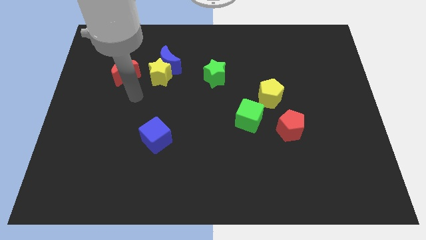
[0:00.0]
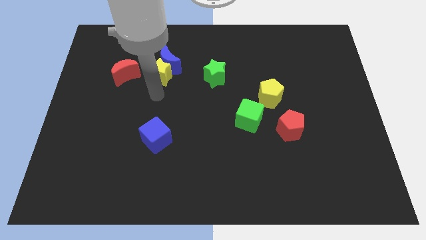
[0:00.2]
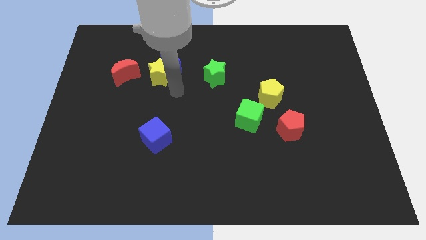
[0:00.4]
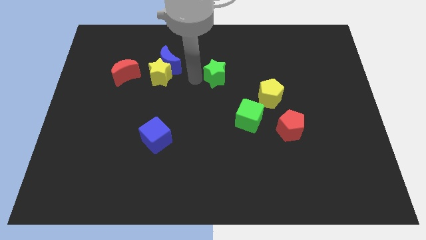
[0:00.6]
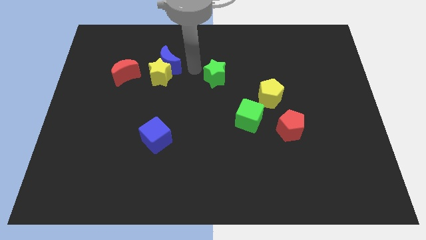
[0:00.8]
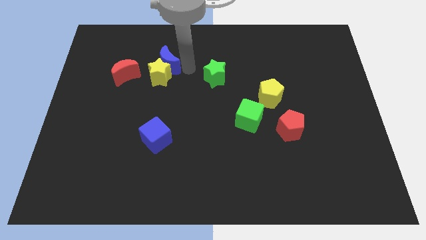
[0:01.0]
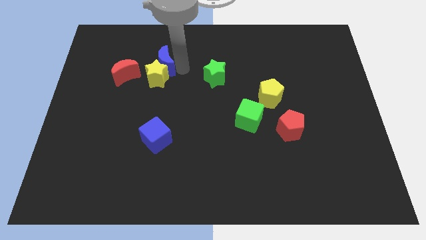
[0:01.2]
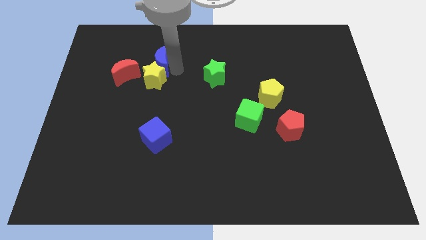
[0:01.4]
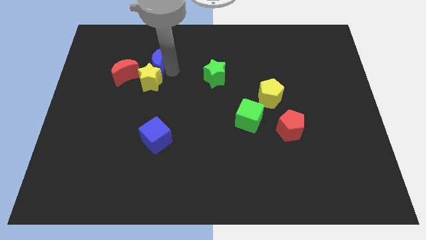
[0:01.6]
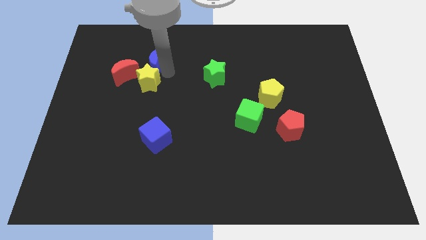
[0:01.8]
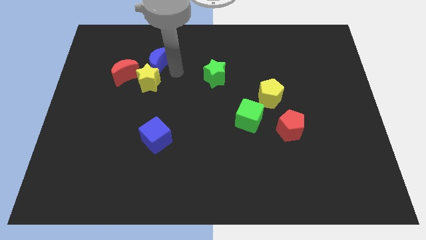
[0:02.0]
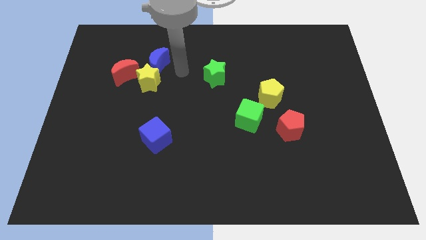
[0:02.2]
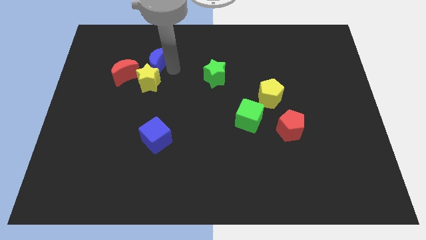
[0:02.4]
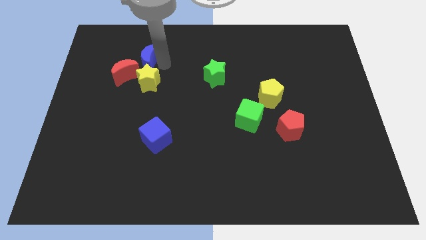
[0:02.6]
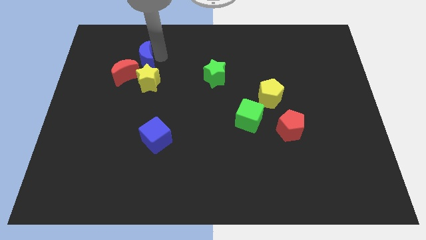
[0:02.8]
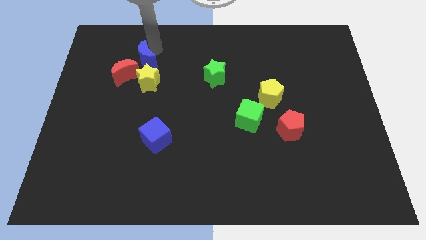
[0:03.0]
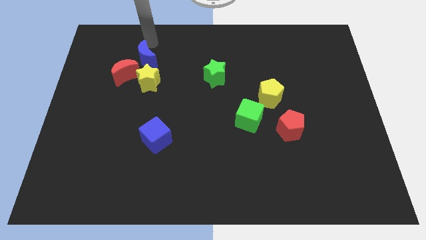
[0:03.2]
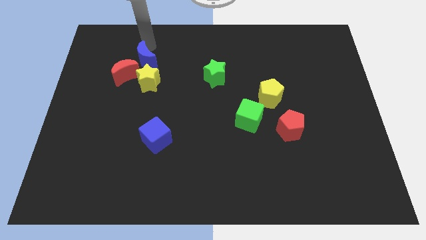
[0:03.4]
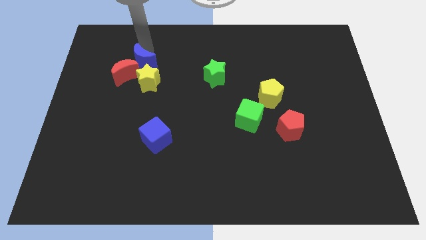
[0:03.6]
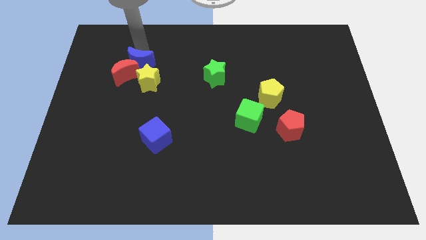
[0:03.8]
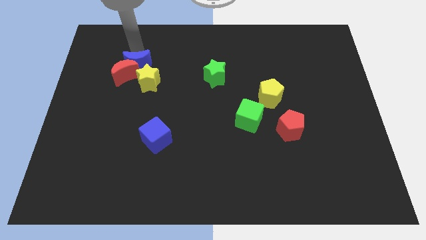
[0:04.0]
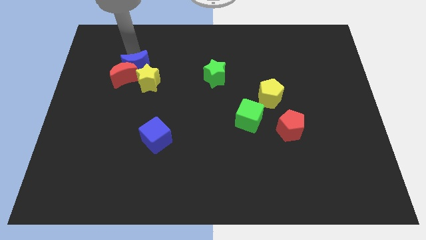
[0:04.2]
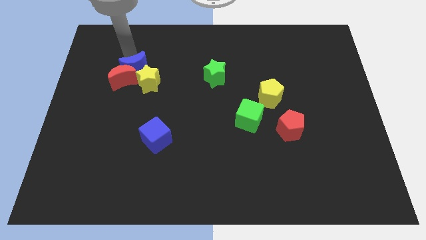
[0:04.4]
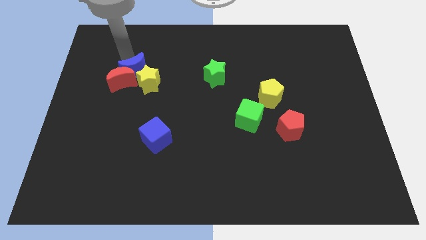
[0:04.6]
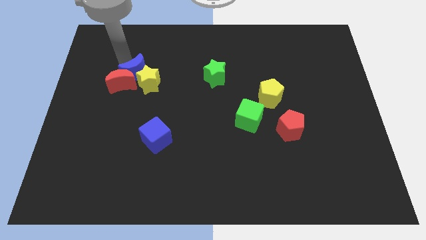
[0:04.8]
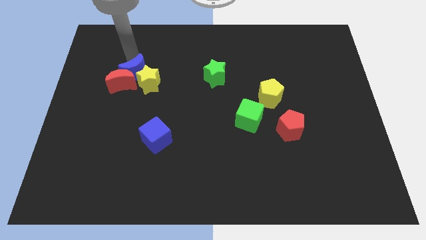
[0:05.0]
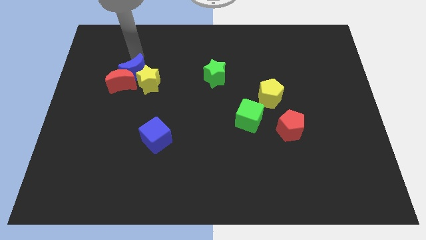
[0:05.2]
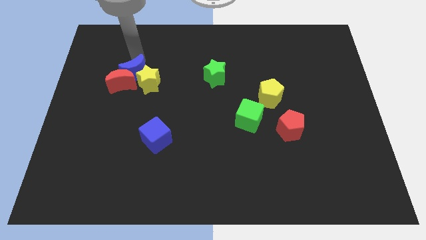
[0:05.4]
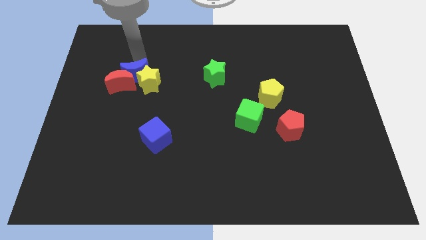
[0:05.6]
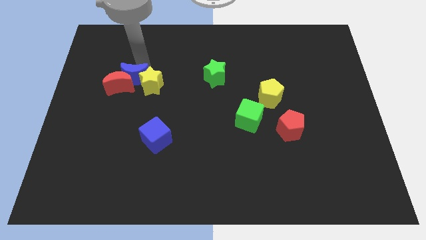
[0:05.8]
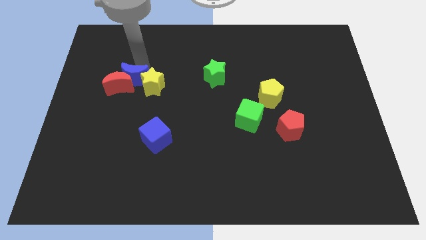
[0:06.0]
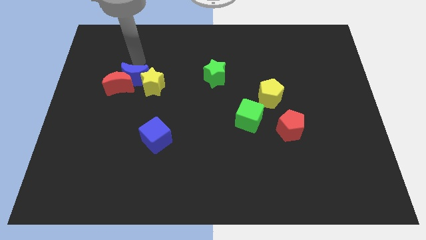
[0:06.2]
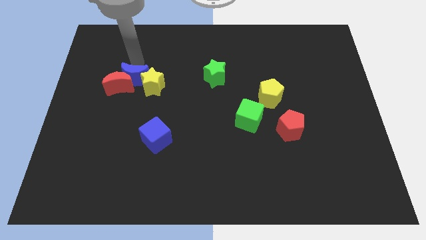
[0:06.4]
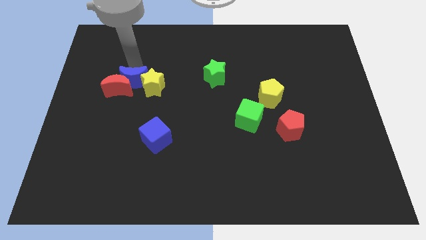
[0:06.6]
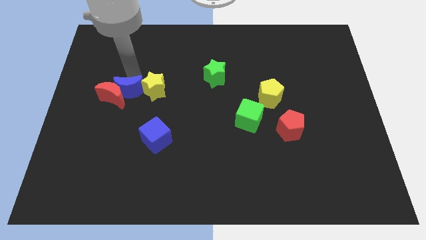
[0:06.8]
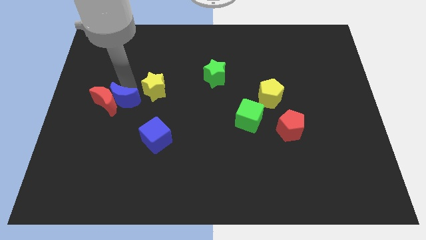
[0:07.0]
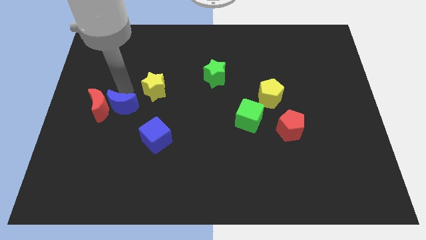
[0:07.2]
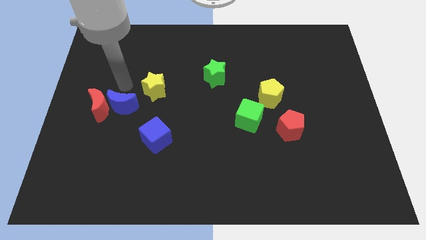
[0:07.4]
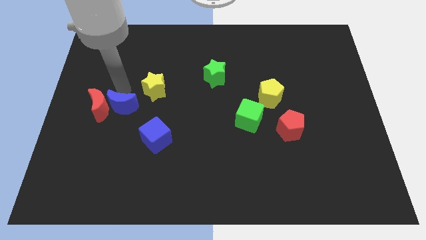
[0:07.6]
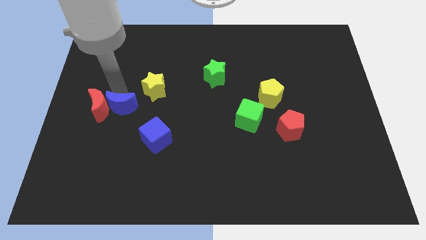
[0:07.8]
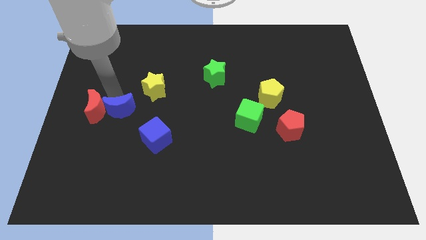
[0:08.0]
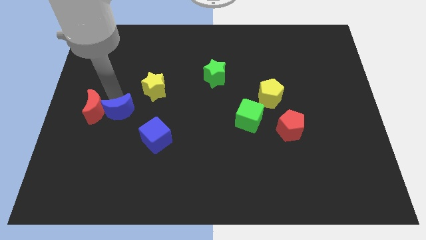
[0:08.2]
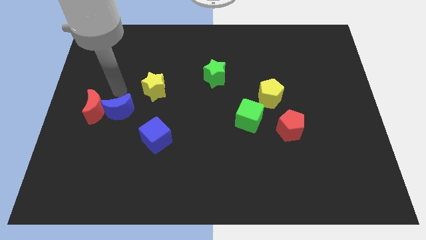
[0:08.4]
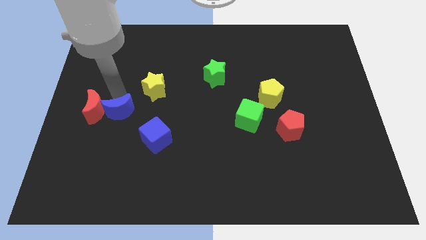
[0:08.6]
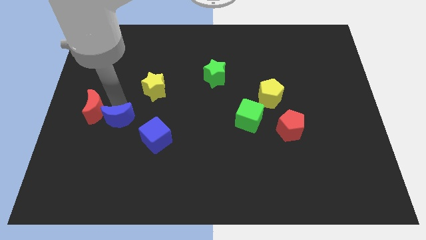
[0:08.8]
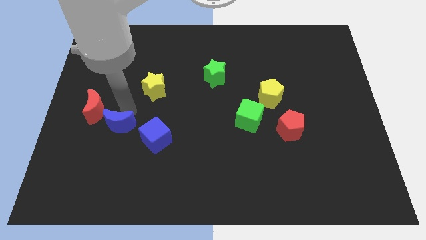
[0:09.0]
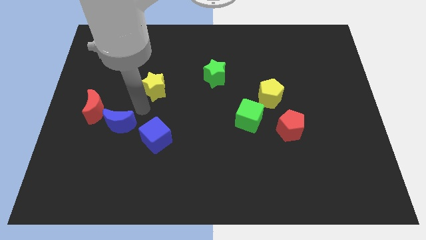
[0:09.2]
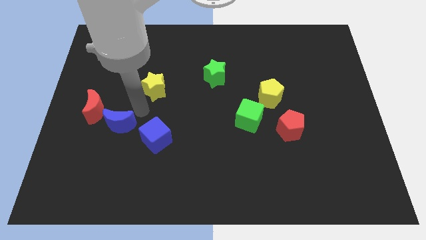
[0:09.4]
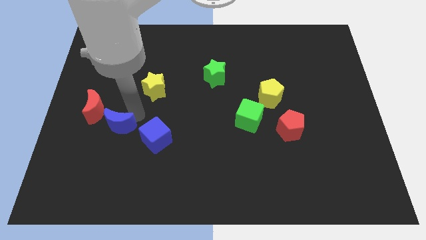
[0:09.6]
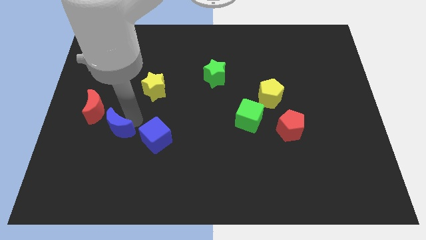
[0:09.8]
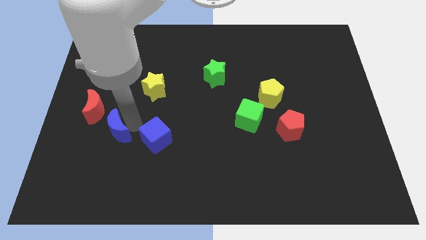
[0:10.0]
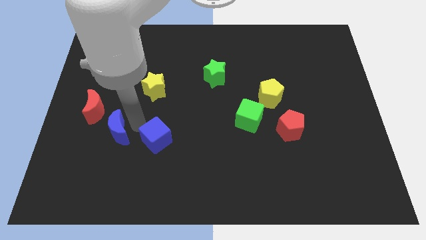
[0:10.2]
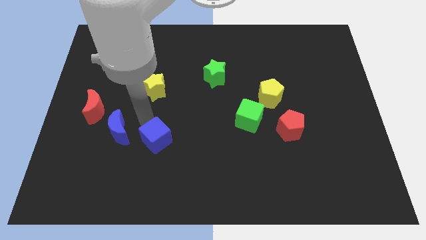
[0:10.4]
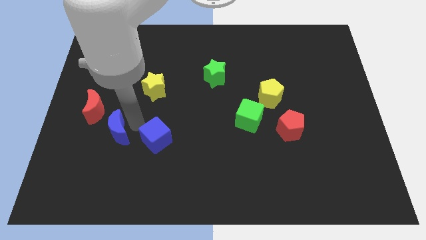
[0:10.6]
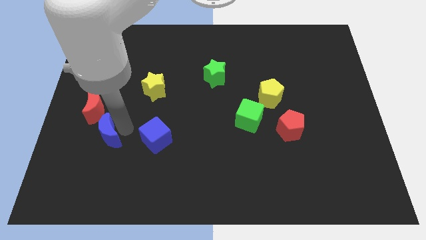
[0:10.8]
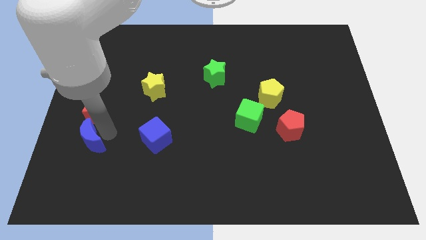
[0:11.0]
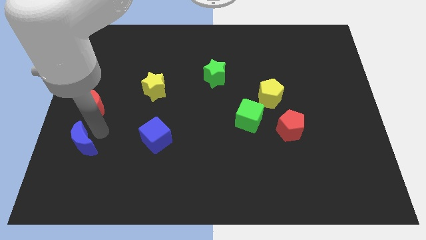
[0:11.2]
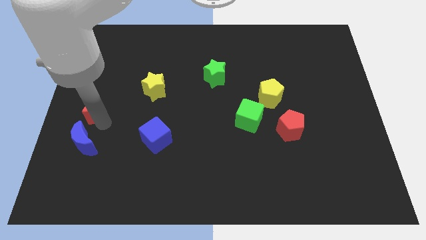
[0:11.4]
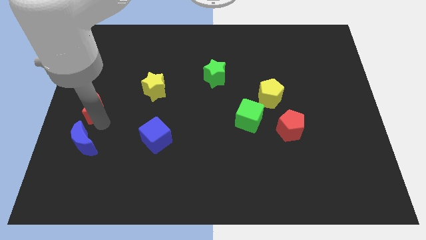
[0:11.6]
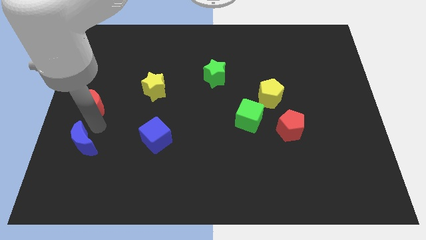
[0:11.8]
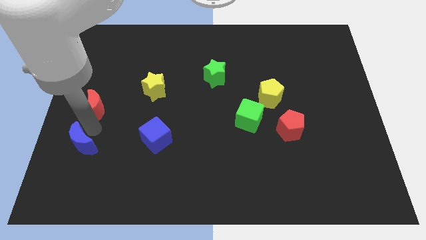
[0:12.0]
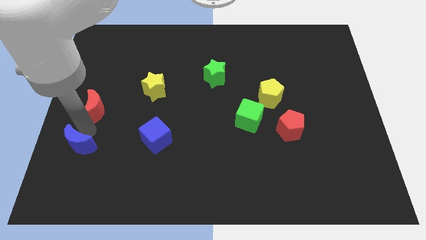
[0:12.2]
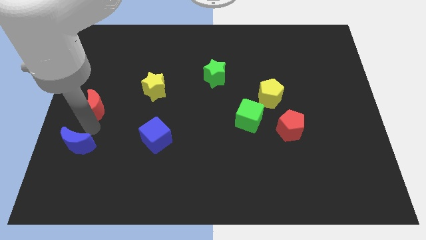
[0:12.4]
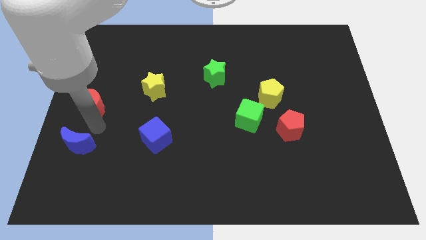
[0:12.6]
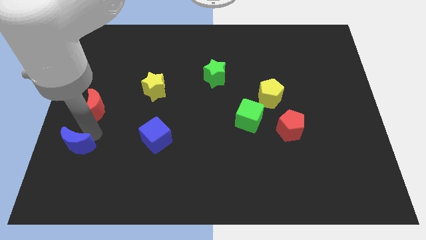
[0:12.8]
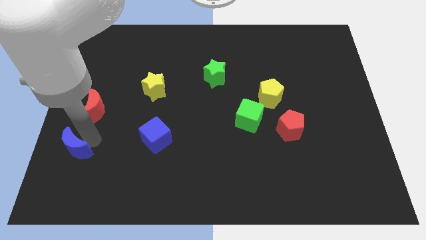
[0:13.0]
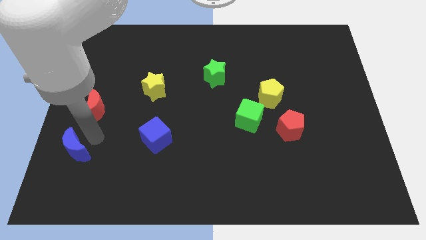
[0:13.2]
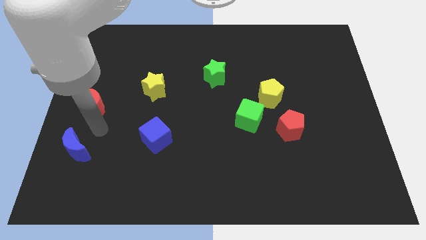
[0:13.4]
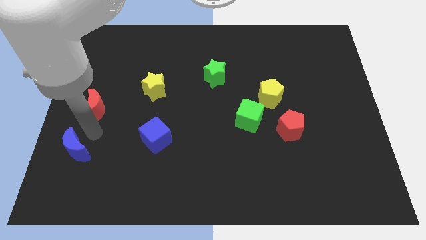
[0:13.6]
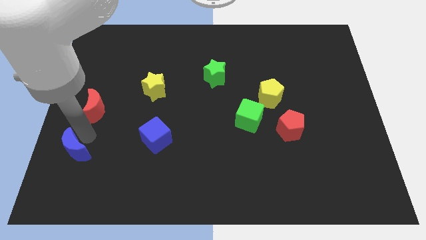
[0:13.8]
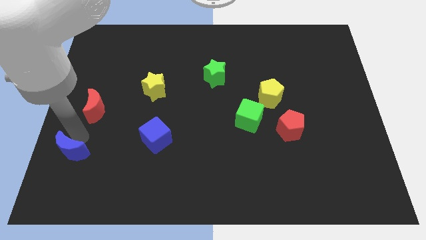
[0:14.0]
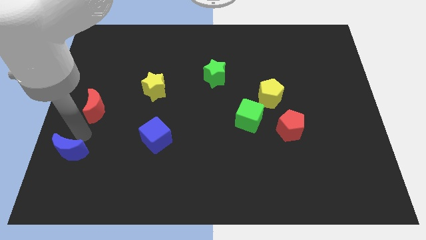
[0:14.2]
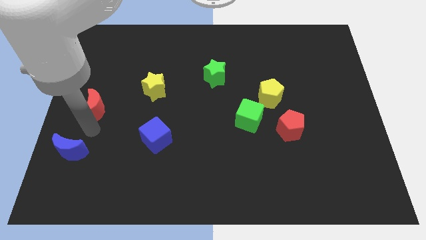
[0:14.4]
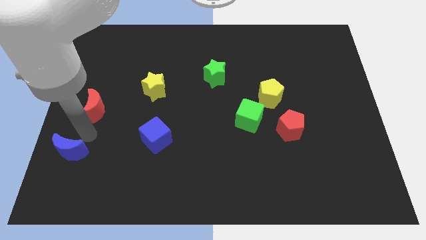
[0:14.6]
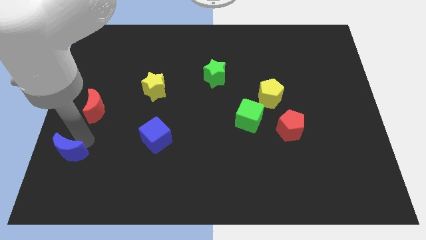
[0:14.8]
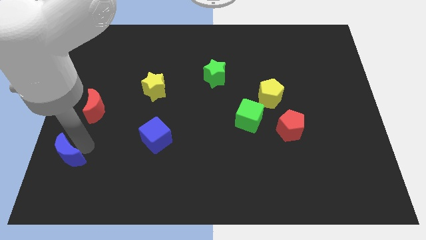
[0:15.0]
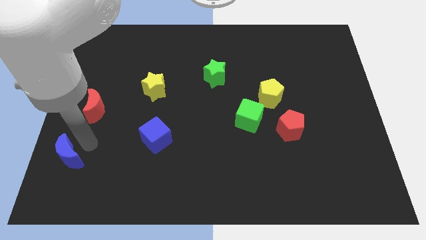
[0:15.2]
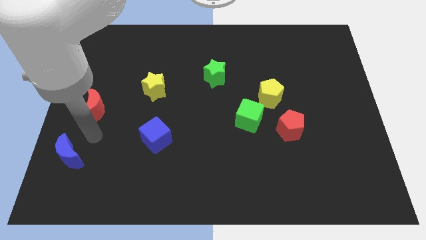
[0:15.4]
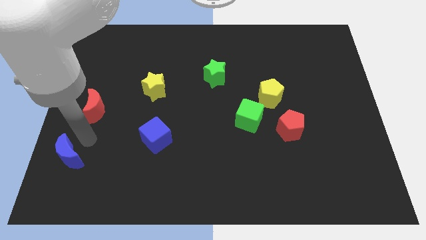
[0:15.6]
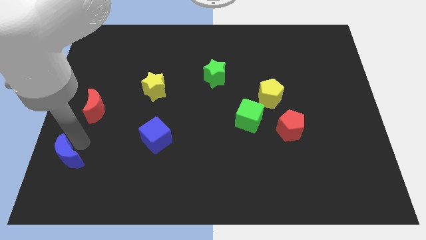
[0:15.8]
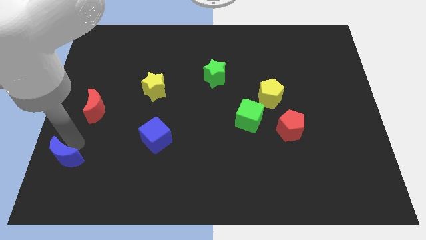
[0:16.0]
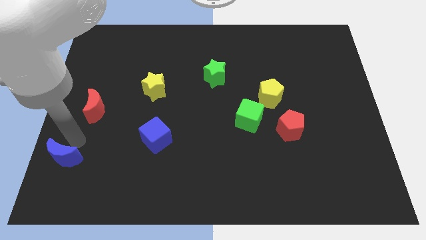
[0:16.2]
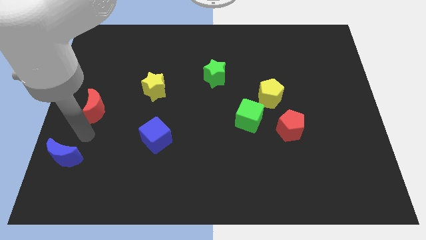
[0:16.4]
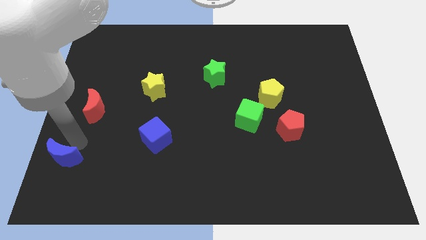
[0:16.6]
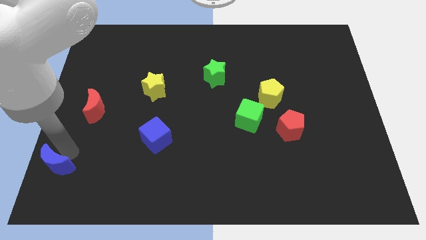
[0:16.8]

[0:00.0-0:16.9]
put the blue moon to the bottom left of the board
